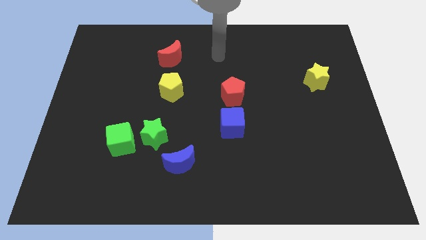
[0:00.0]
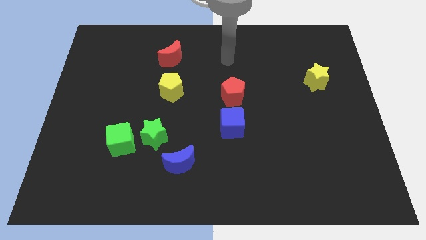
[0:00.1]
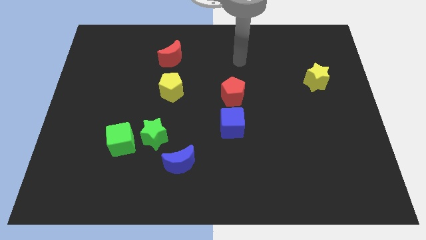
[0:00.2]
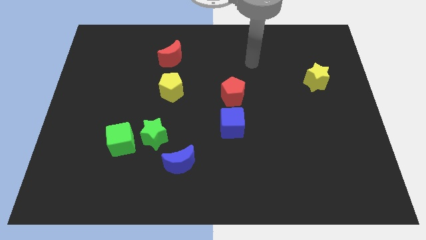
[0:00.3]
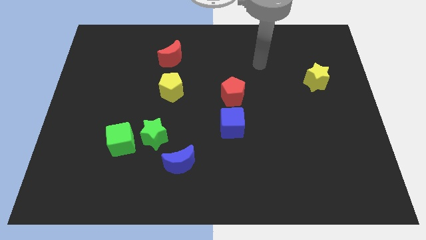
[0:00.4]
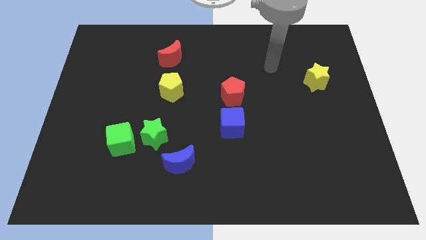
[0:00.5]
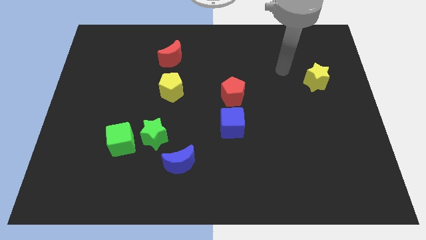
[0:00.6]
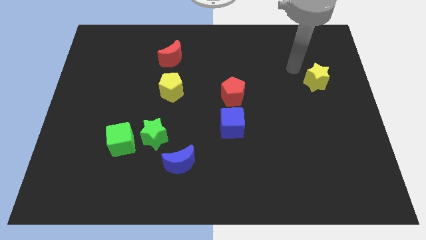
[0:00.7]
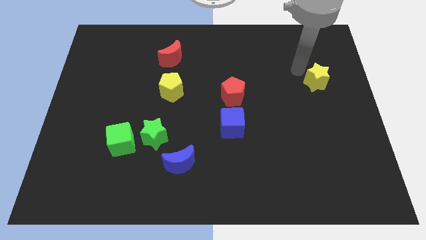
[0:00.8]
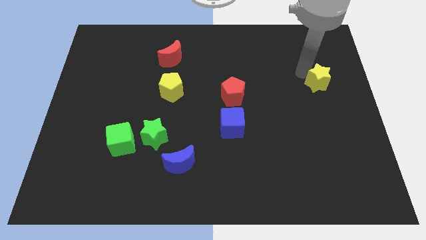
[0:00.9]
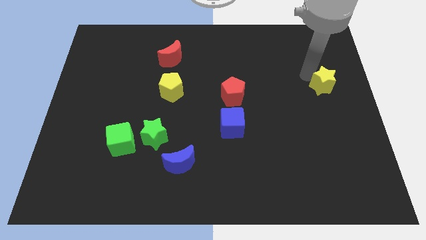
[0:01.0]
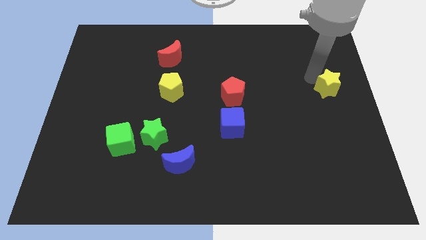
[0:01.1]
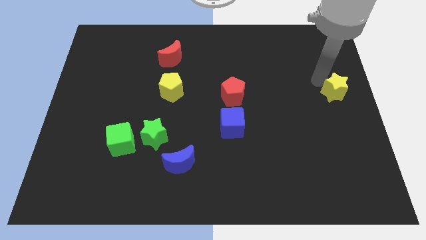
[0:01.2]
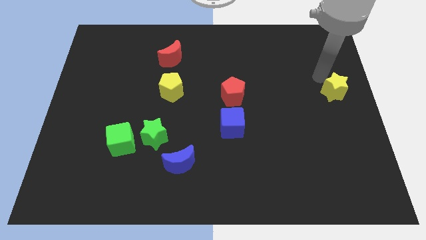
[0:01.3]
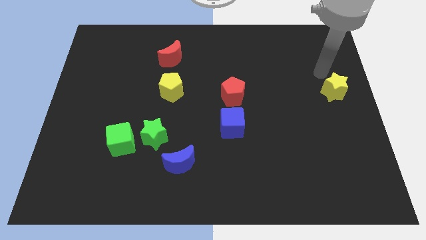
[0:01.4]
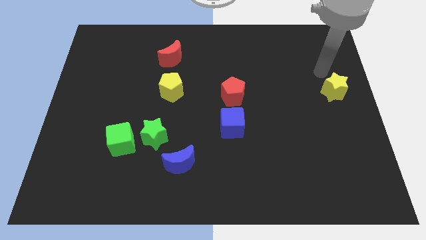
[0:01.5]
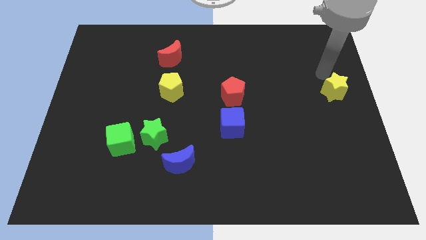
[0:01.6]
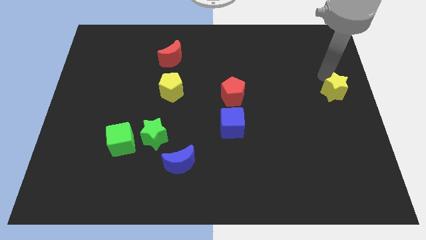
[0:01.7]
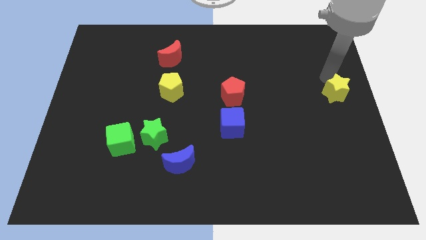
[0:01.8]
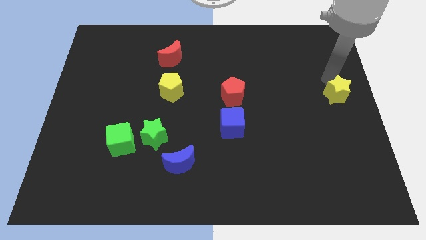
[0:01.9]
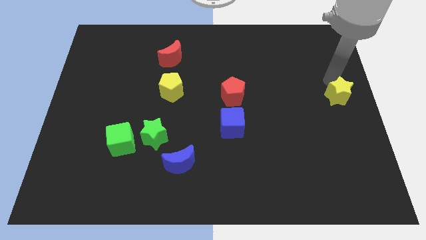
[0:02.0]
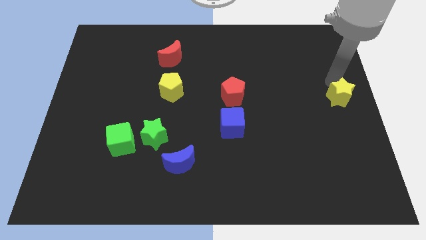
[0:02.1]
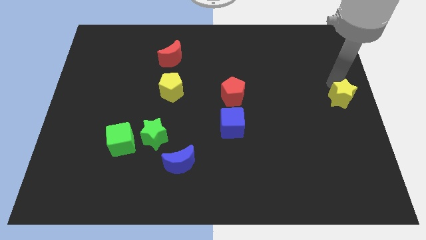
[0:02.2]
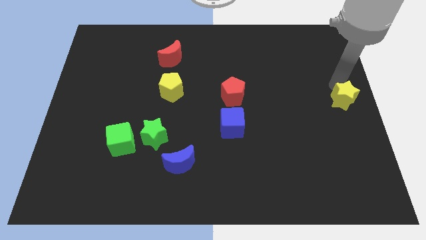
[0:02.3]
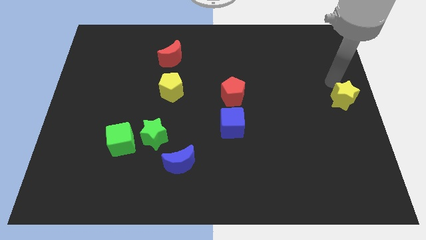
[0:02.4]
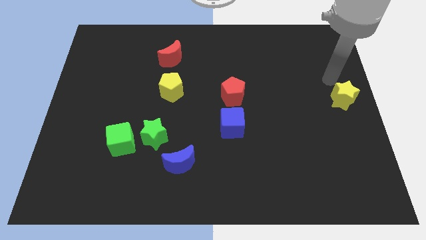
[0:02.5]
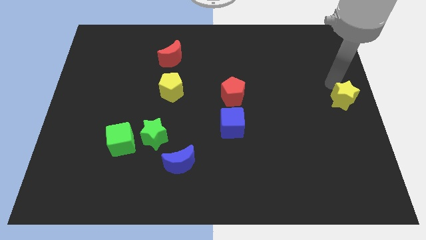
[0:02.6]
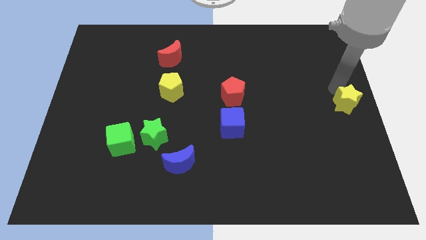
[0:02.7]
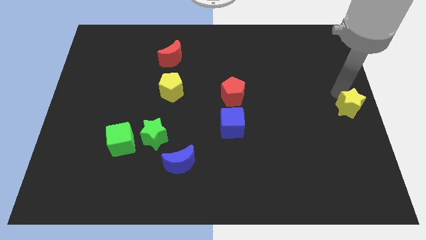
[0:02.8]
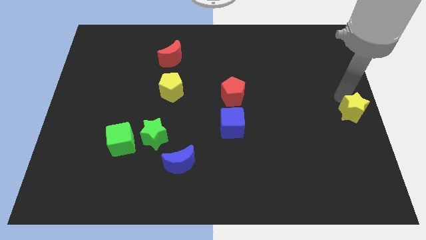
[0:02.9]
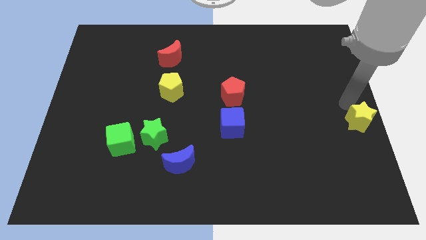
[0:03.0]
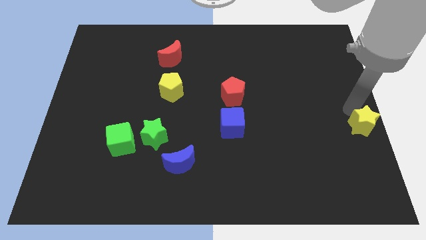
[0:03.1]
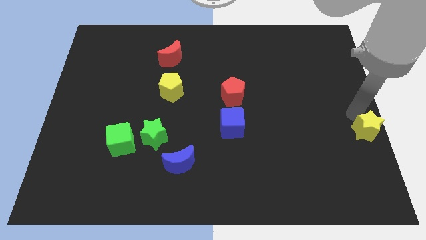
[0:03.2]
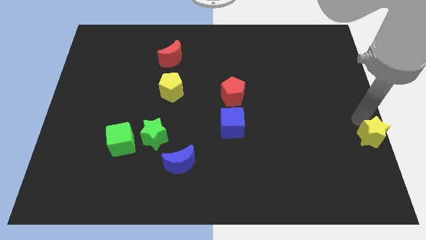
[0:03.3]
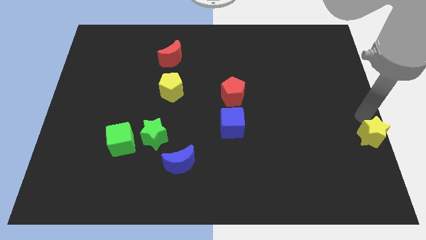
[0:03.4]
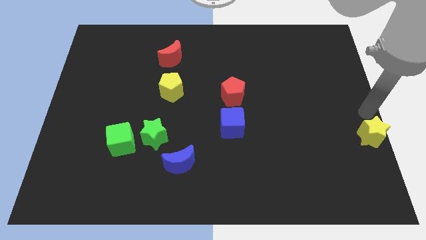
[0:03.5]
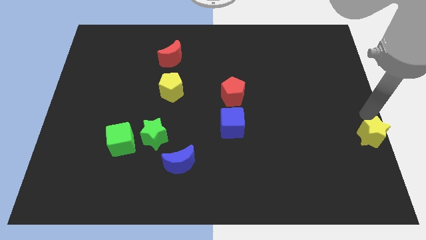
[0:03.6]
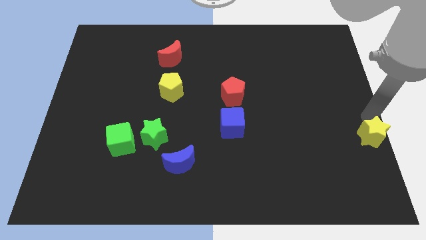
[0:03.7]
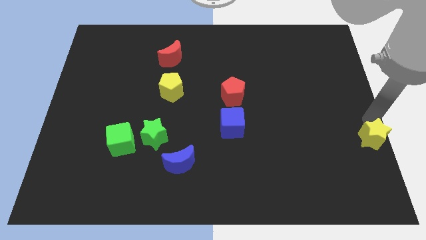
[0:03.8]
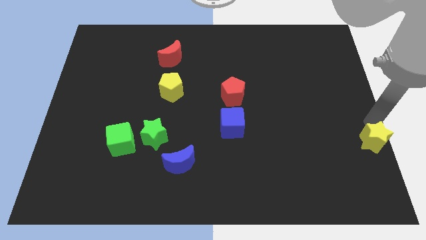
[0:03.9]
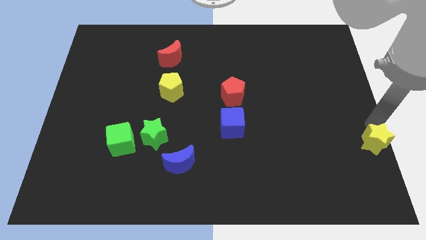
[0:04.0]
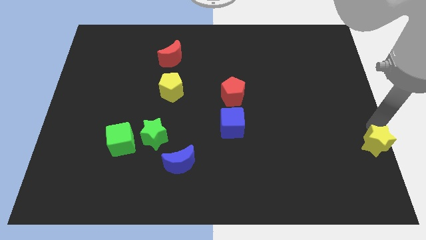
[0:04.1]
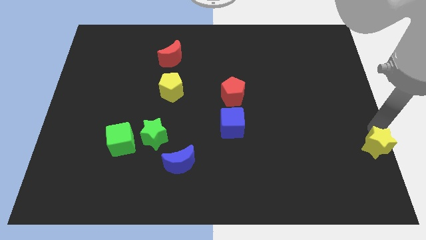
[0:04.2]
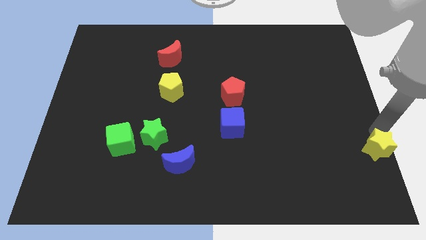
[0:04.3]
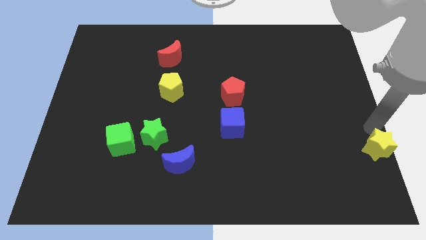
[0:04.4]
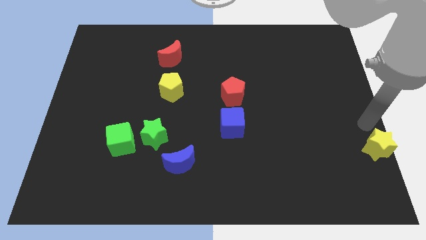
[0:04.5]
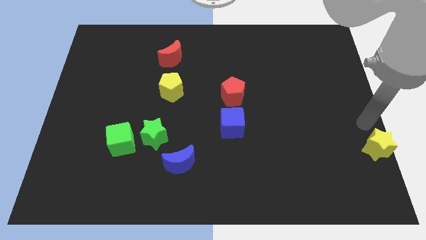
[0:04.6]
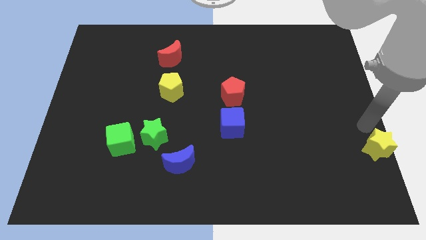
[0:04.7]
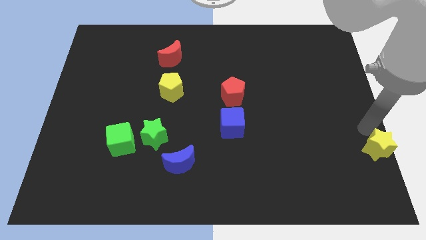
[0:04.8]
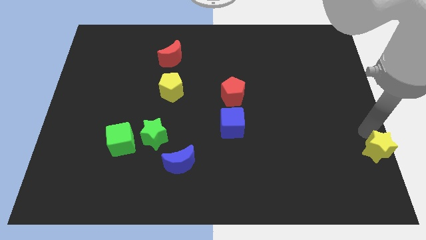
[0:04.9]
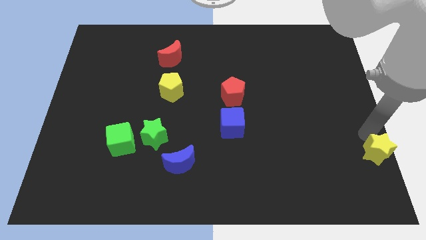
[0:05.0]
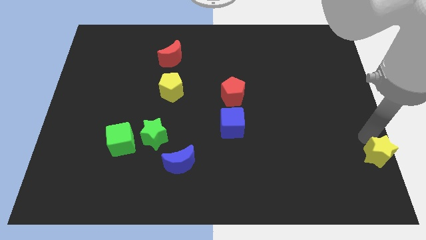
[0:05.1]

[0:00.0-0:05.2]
put the yellow star to the bottom right

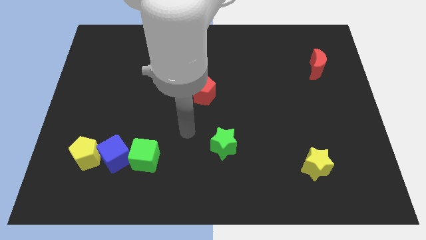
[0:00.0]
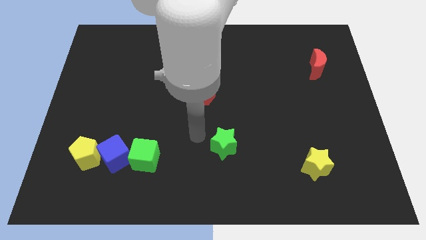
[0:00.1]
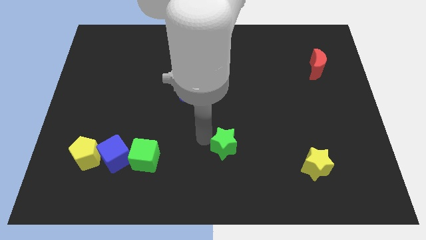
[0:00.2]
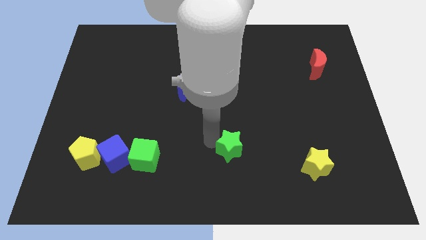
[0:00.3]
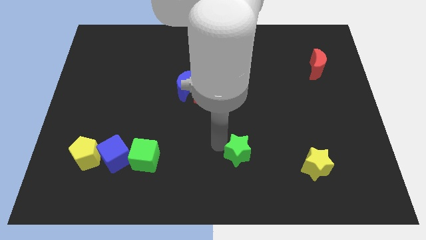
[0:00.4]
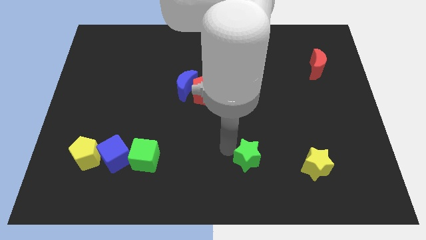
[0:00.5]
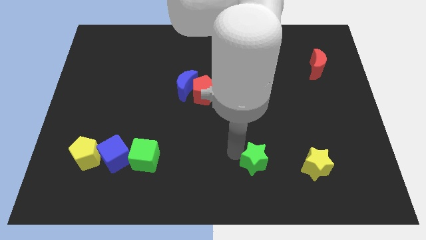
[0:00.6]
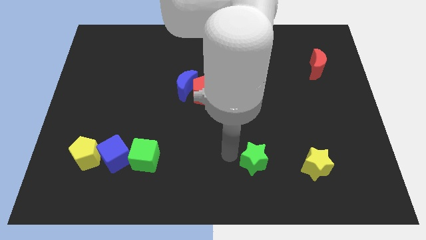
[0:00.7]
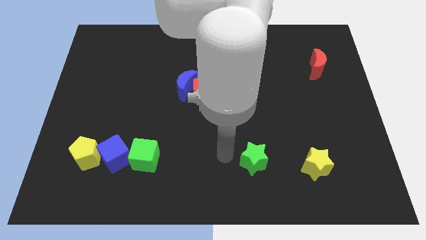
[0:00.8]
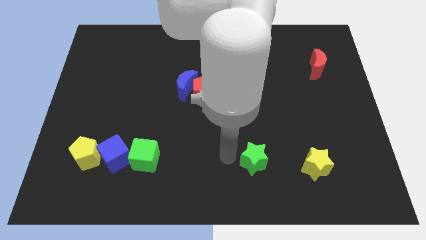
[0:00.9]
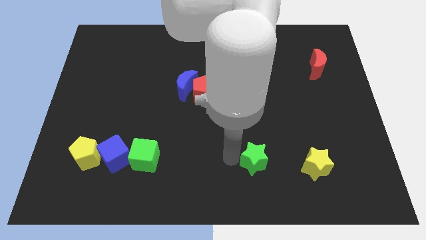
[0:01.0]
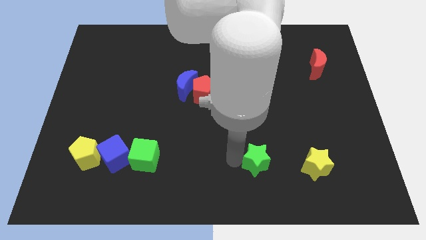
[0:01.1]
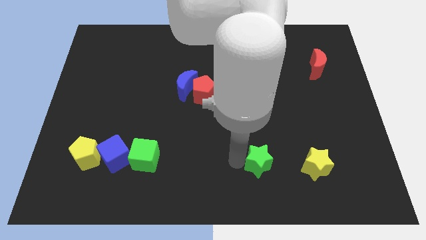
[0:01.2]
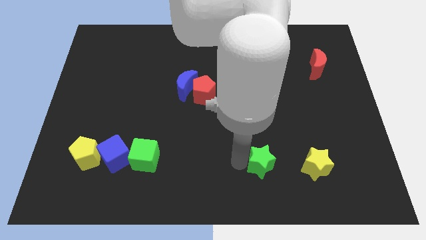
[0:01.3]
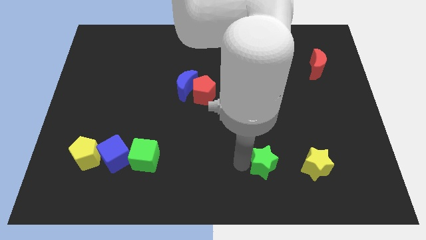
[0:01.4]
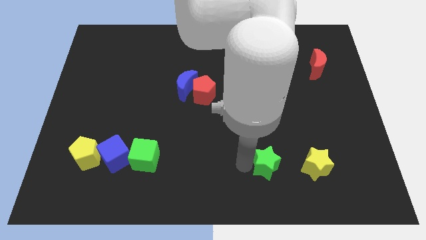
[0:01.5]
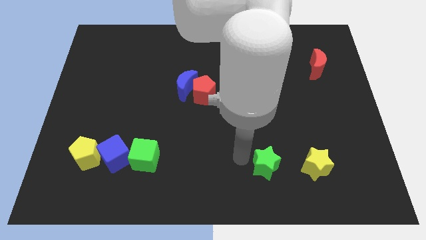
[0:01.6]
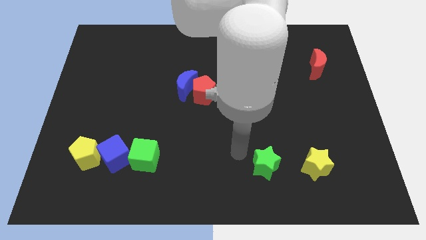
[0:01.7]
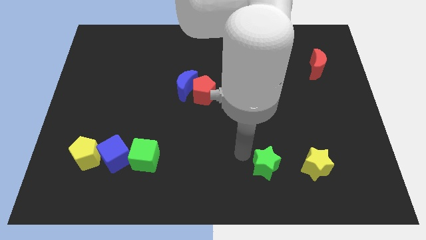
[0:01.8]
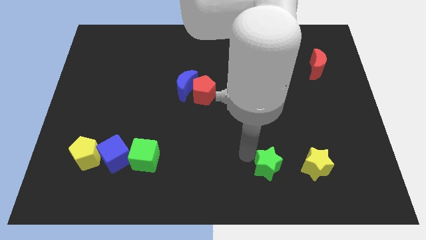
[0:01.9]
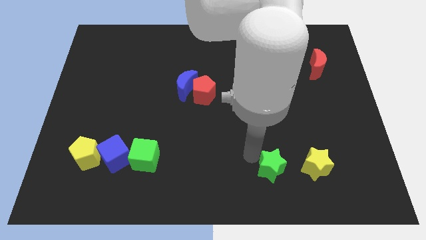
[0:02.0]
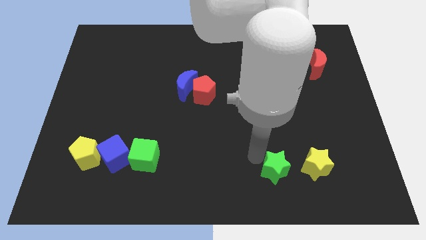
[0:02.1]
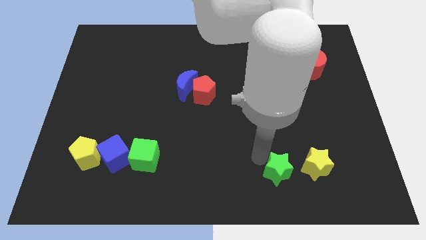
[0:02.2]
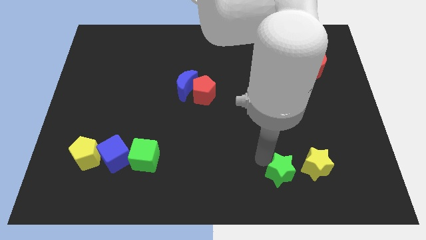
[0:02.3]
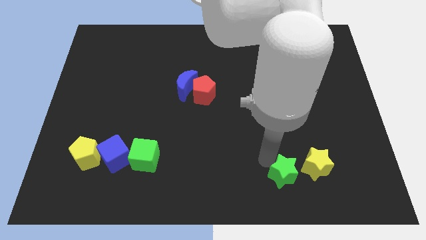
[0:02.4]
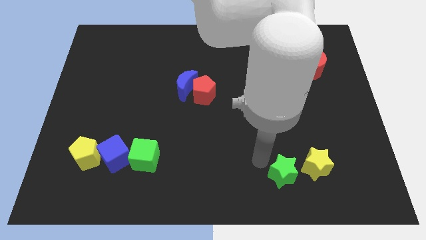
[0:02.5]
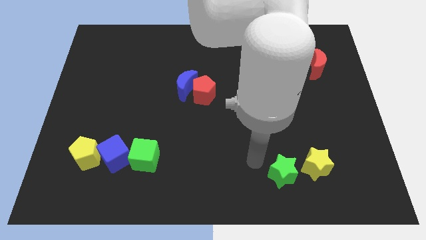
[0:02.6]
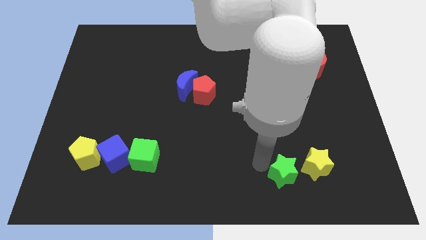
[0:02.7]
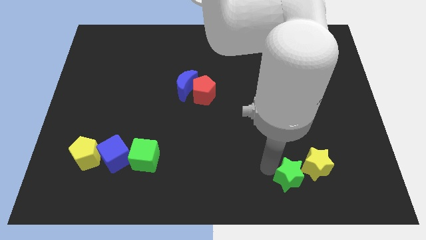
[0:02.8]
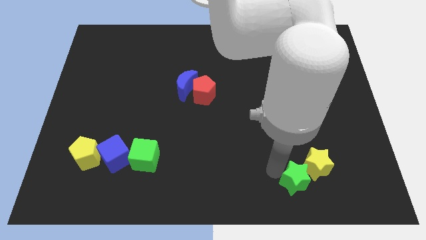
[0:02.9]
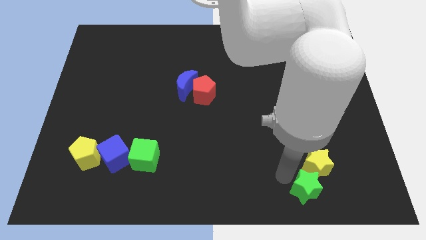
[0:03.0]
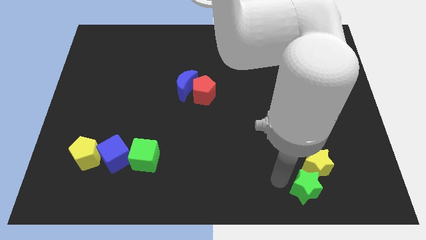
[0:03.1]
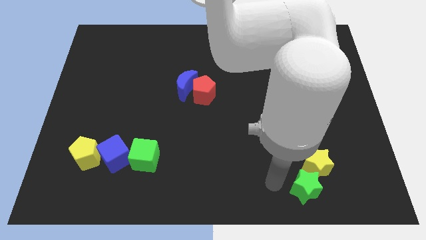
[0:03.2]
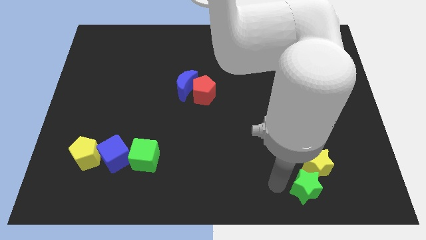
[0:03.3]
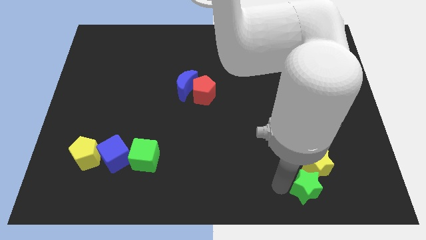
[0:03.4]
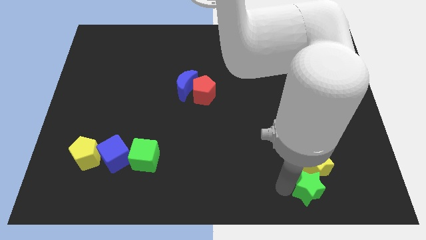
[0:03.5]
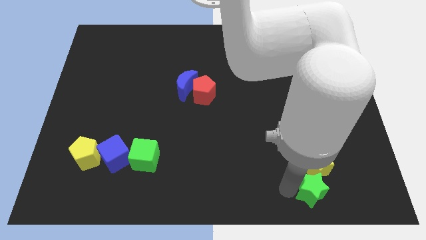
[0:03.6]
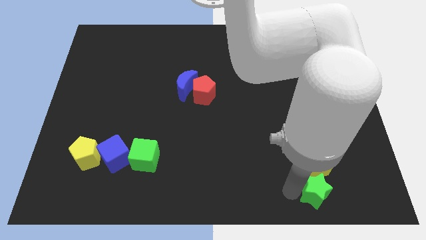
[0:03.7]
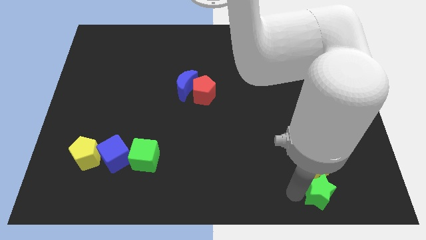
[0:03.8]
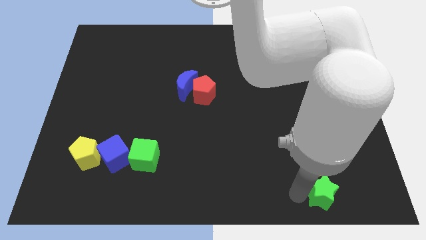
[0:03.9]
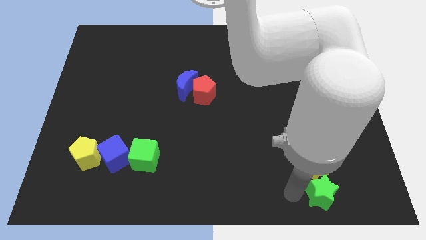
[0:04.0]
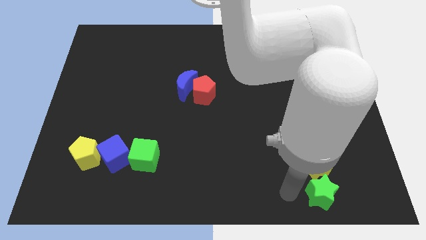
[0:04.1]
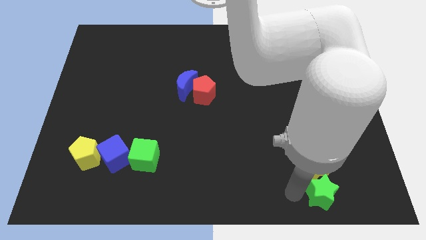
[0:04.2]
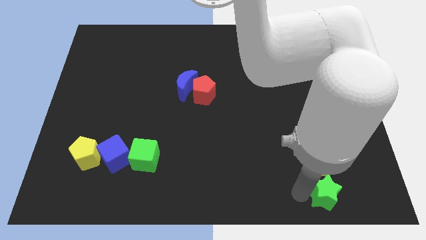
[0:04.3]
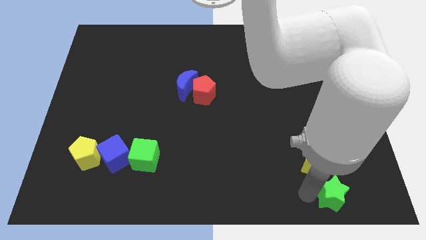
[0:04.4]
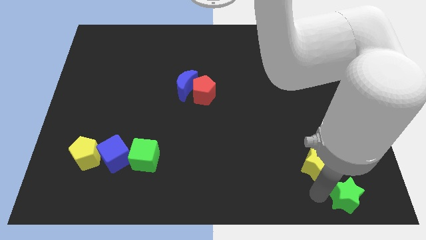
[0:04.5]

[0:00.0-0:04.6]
put the green star to the bottom right of the board
